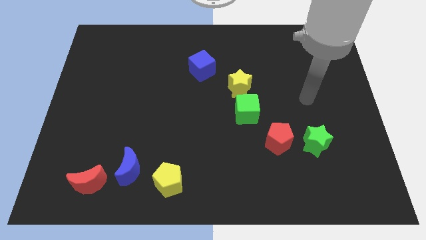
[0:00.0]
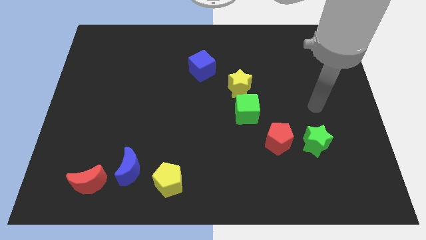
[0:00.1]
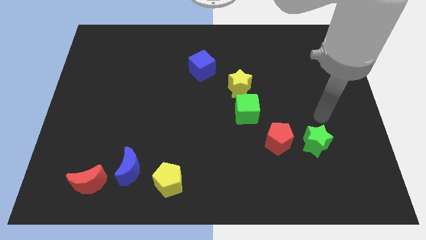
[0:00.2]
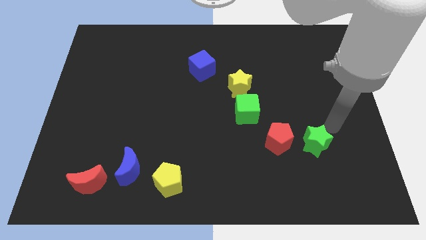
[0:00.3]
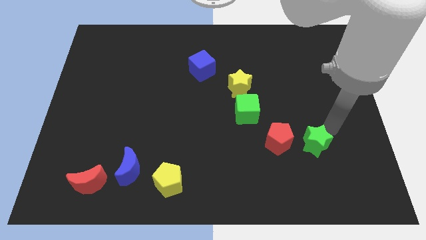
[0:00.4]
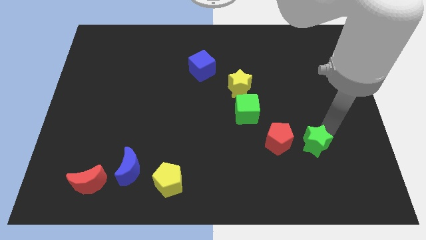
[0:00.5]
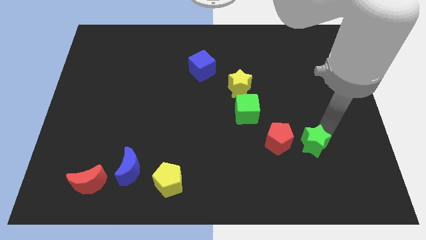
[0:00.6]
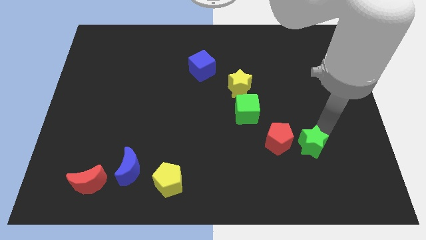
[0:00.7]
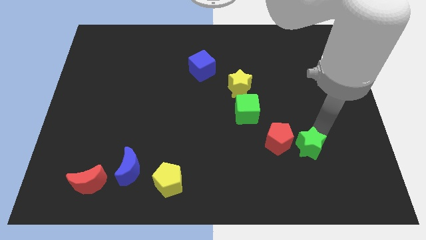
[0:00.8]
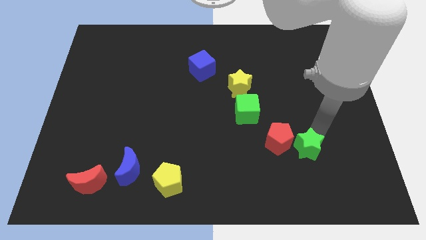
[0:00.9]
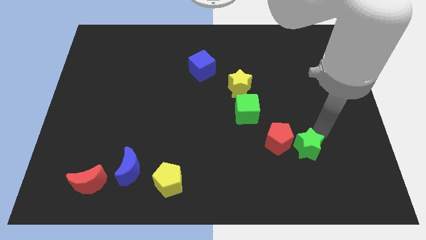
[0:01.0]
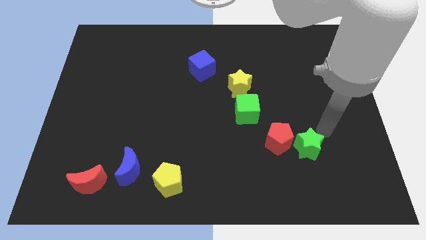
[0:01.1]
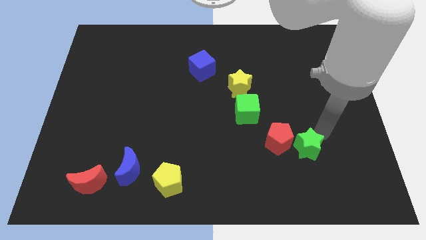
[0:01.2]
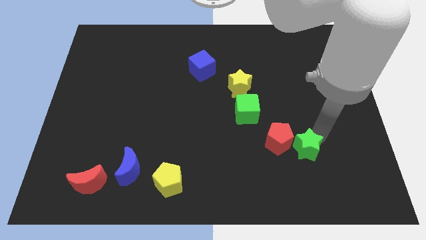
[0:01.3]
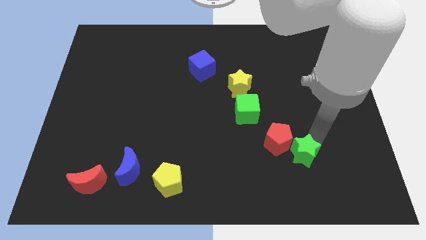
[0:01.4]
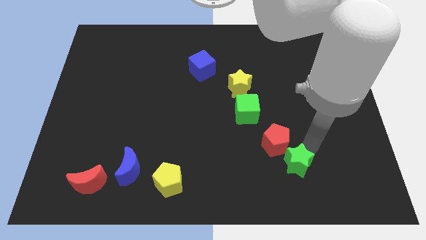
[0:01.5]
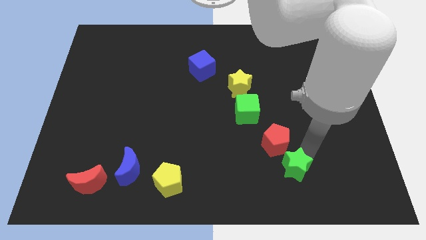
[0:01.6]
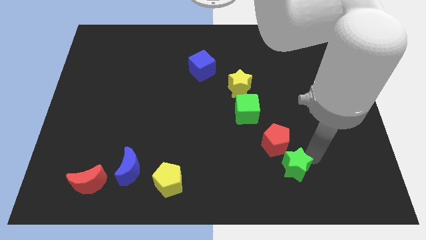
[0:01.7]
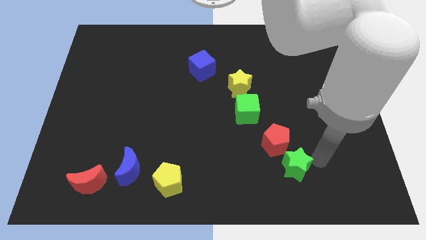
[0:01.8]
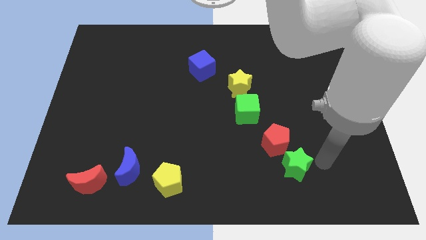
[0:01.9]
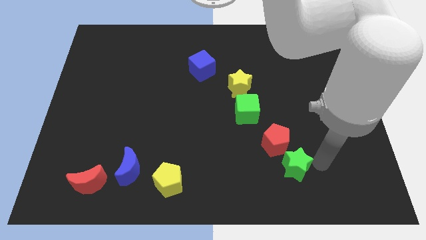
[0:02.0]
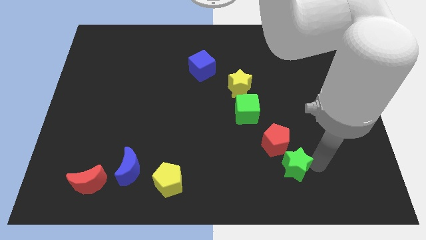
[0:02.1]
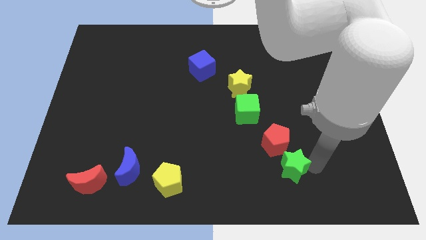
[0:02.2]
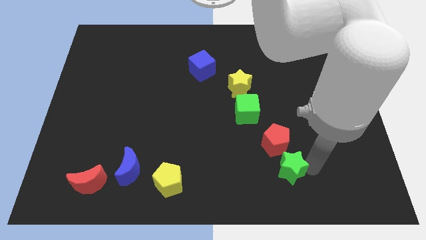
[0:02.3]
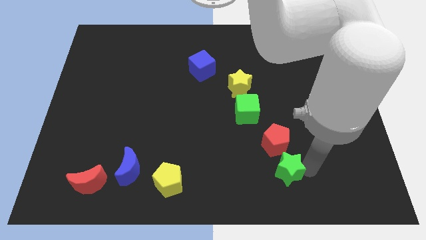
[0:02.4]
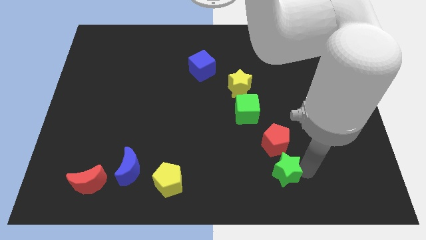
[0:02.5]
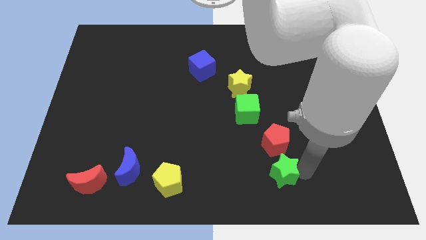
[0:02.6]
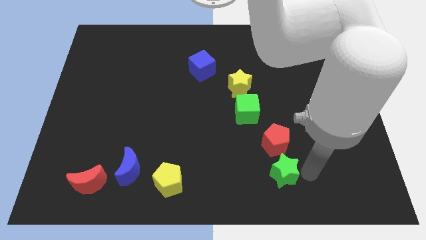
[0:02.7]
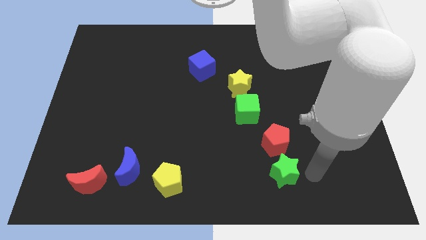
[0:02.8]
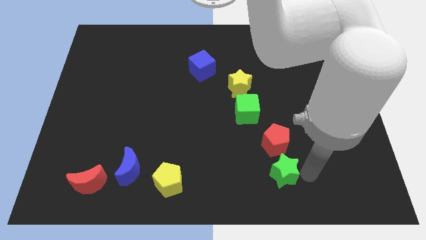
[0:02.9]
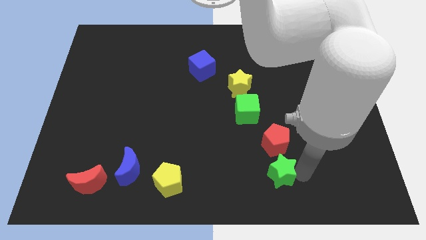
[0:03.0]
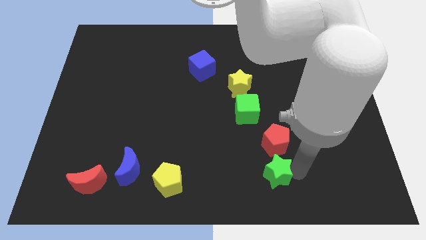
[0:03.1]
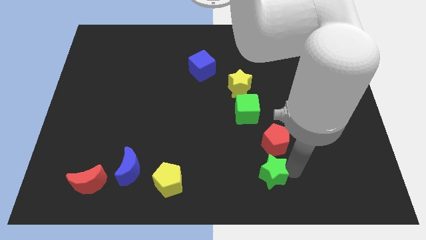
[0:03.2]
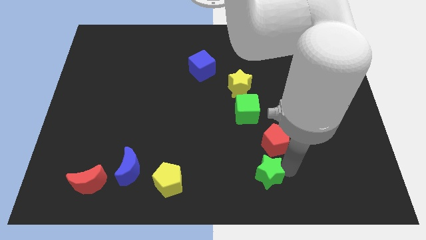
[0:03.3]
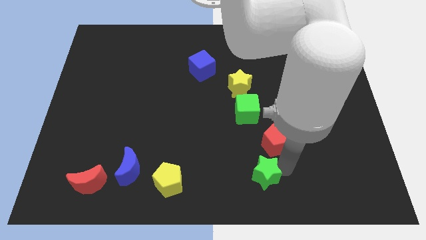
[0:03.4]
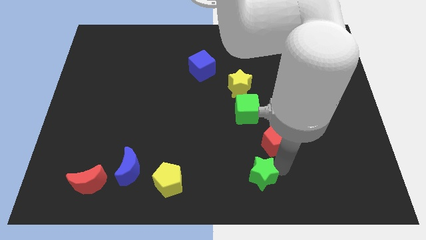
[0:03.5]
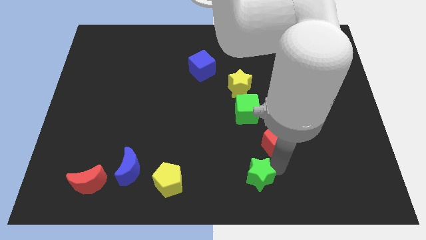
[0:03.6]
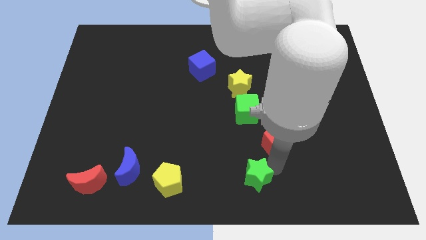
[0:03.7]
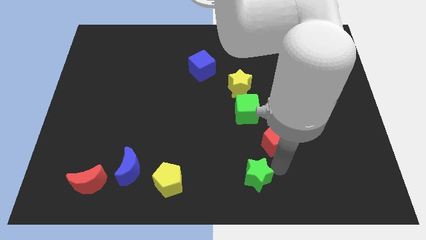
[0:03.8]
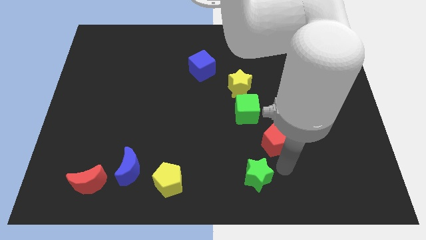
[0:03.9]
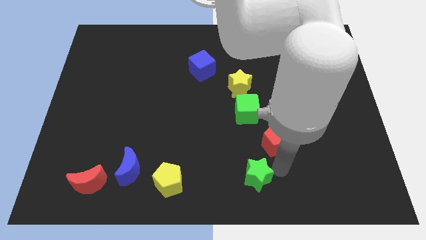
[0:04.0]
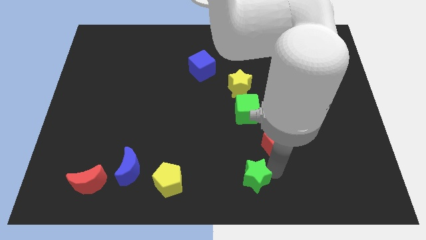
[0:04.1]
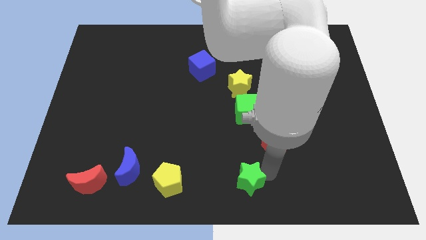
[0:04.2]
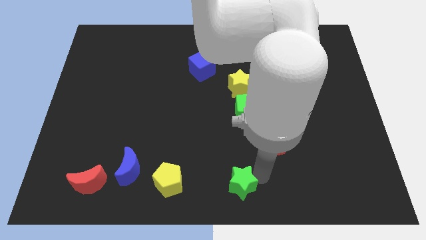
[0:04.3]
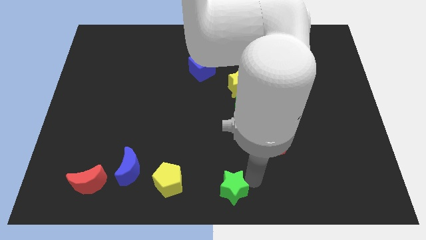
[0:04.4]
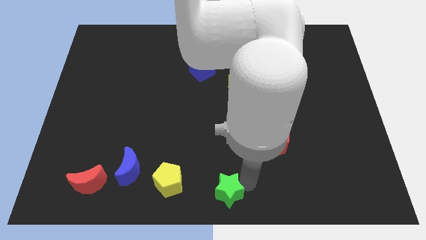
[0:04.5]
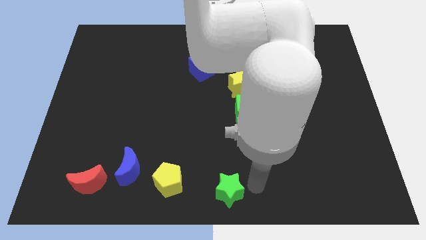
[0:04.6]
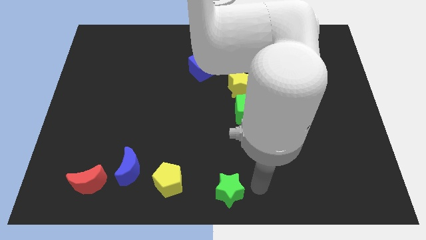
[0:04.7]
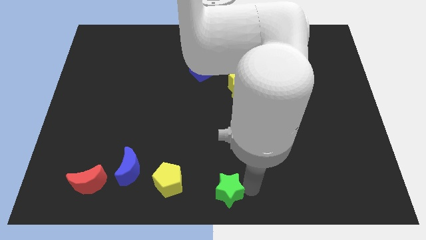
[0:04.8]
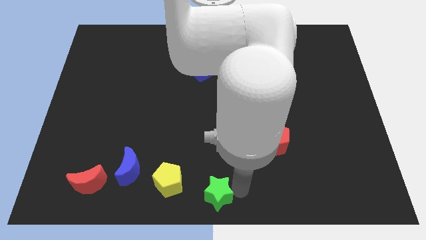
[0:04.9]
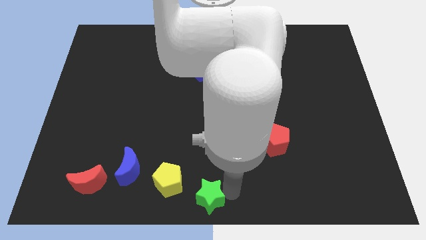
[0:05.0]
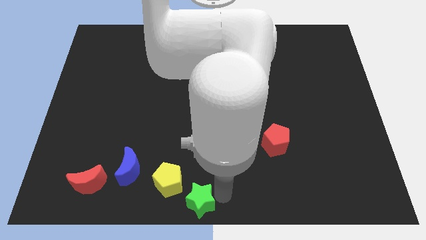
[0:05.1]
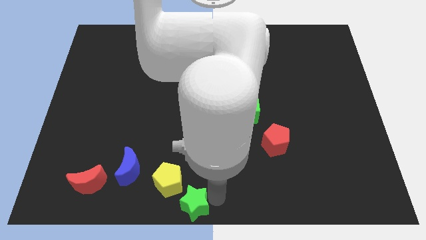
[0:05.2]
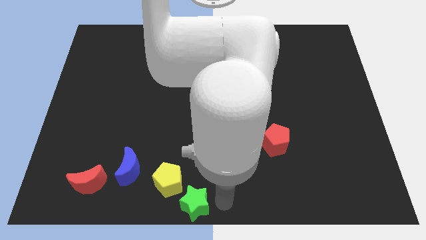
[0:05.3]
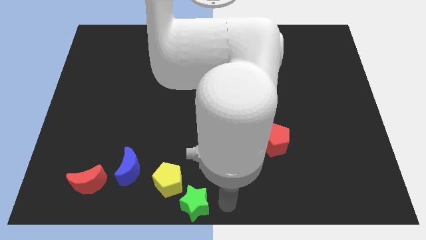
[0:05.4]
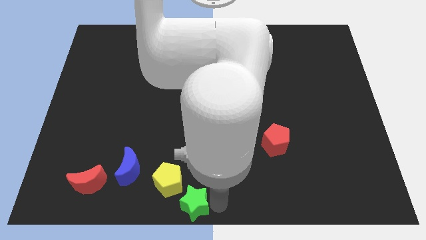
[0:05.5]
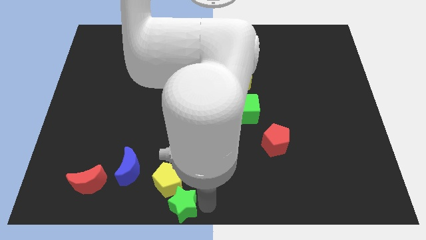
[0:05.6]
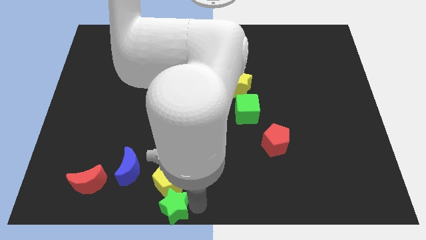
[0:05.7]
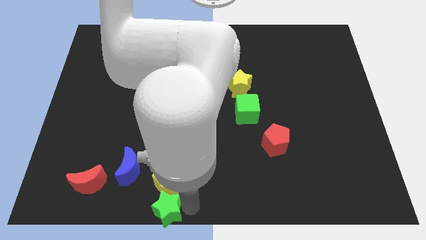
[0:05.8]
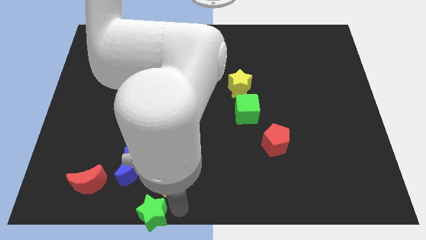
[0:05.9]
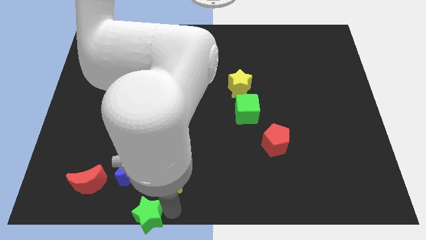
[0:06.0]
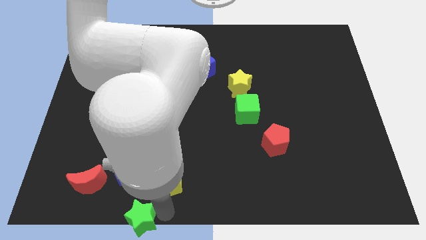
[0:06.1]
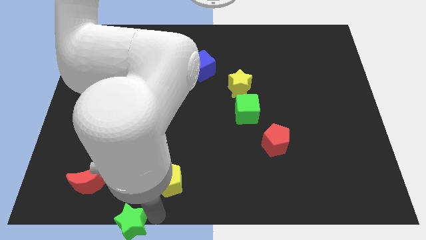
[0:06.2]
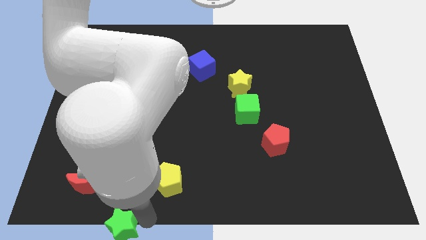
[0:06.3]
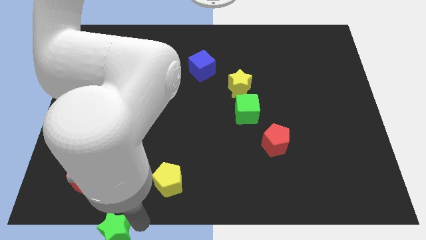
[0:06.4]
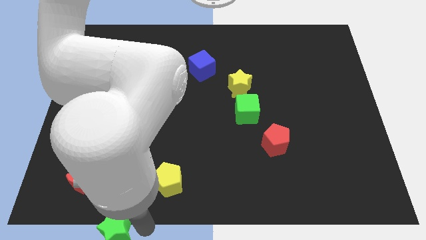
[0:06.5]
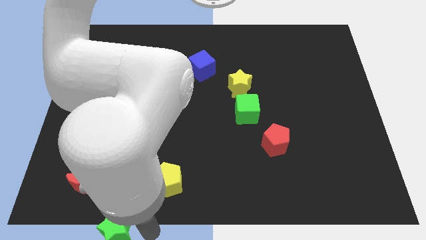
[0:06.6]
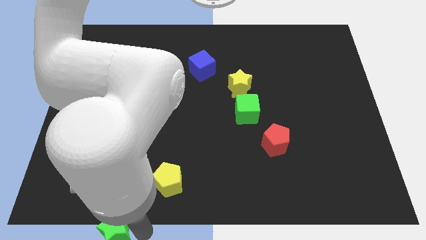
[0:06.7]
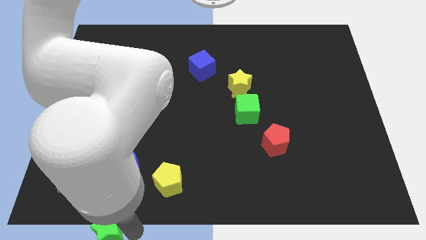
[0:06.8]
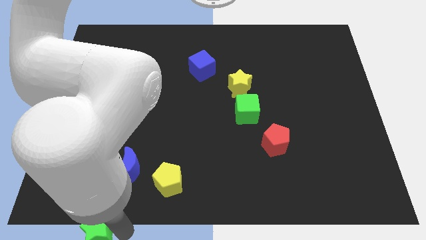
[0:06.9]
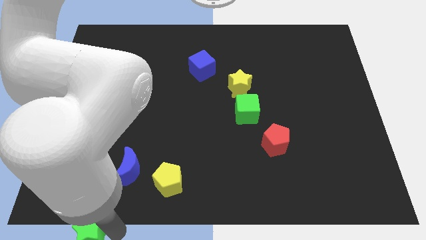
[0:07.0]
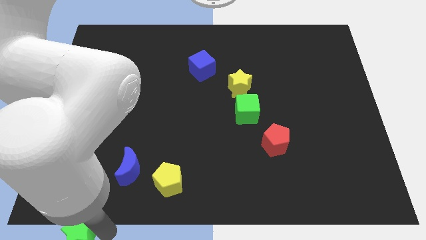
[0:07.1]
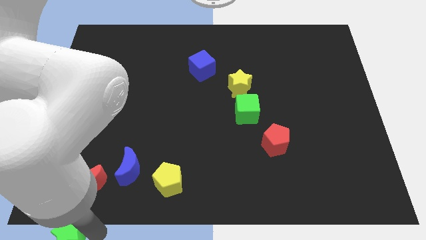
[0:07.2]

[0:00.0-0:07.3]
move the green star to the bottom left of the board
